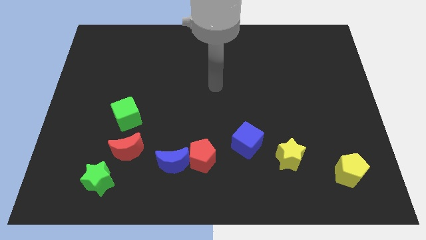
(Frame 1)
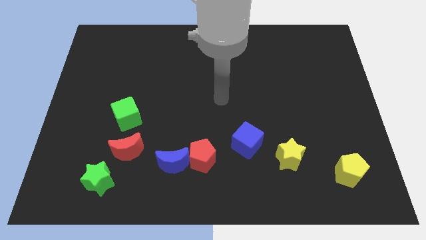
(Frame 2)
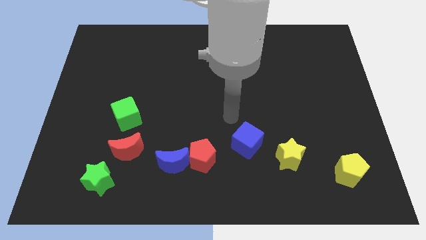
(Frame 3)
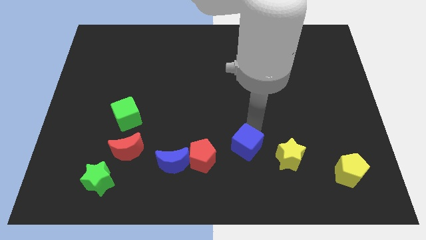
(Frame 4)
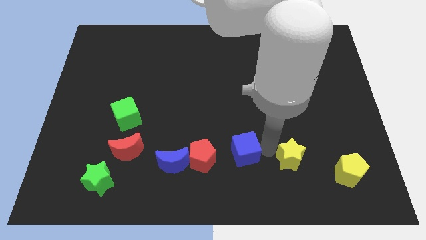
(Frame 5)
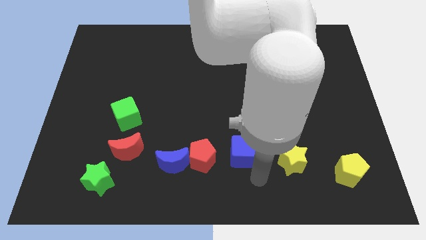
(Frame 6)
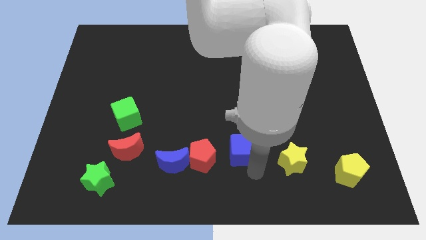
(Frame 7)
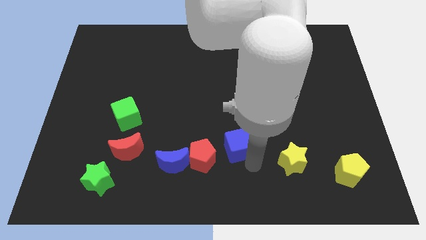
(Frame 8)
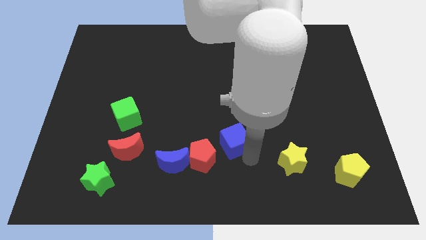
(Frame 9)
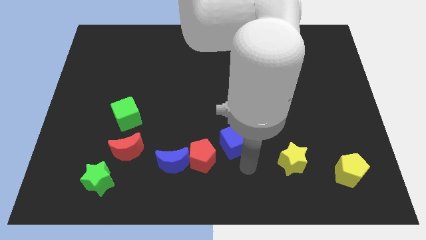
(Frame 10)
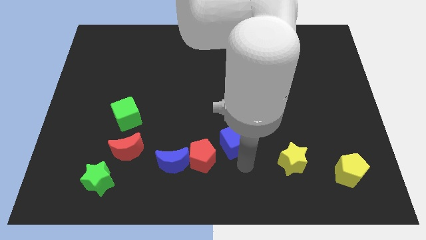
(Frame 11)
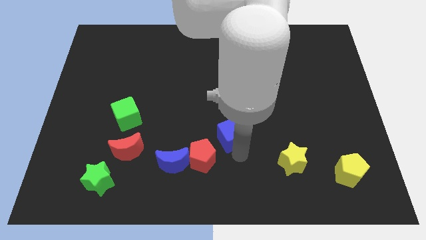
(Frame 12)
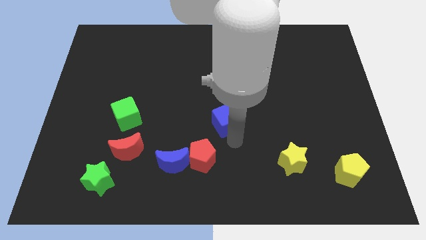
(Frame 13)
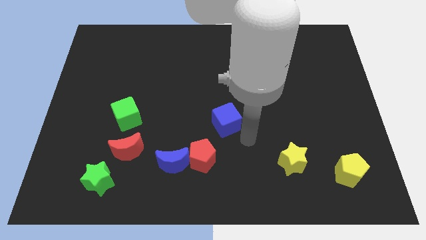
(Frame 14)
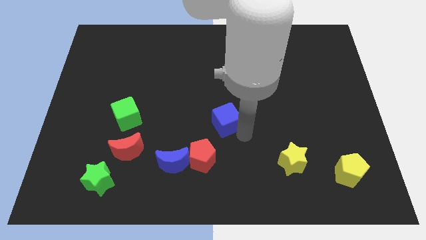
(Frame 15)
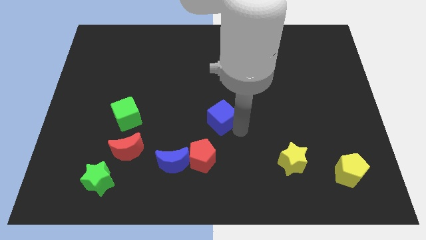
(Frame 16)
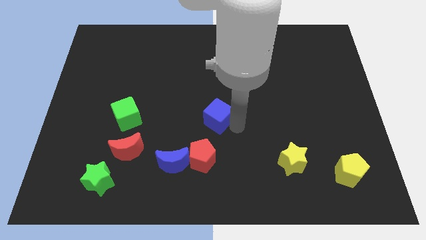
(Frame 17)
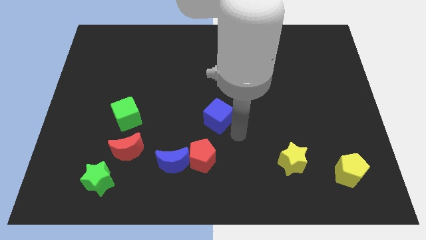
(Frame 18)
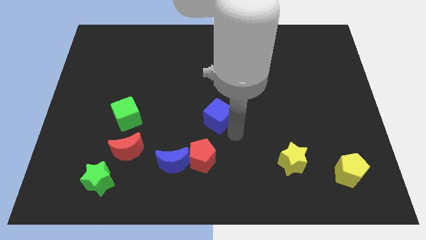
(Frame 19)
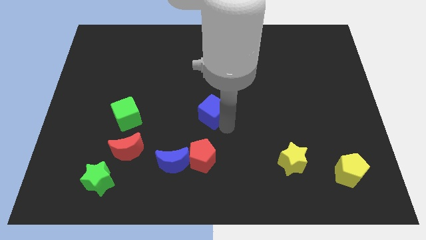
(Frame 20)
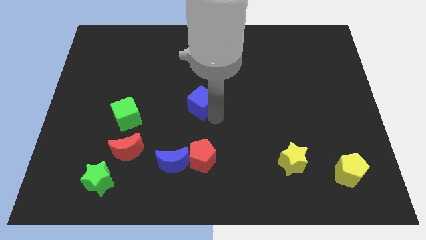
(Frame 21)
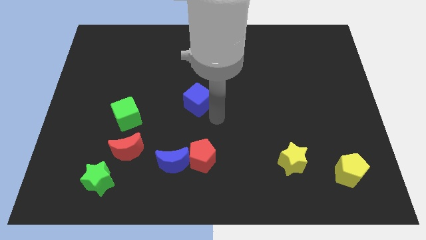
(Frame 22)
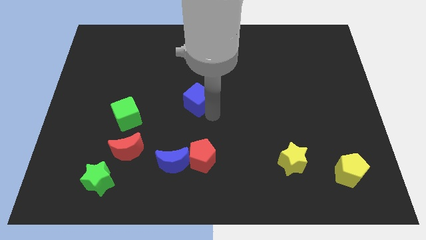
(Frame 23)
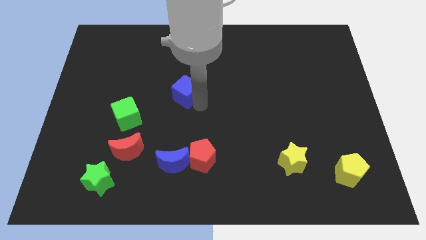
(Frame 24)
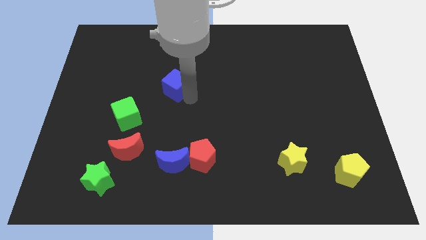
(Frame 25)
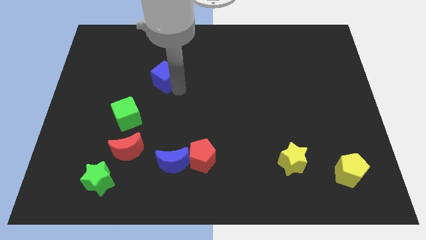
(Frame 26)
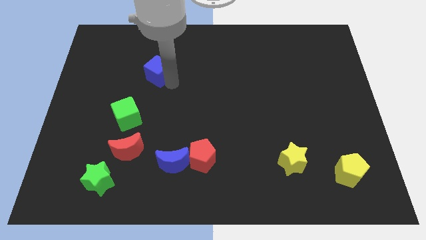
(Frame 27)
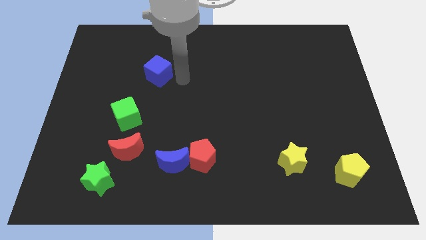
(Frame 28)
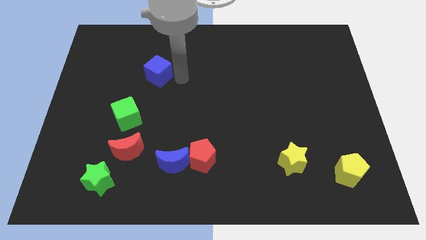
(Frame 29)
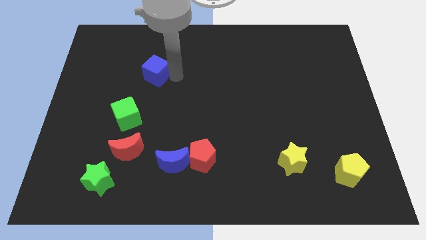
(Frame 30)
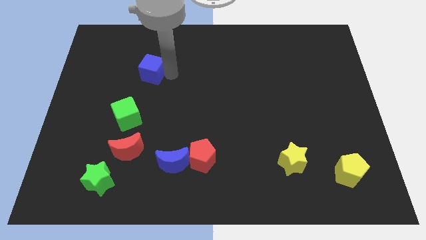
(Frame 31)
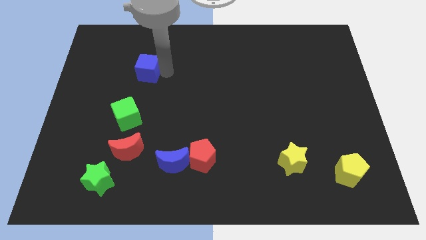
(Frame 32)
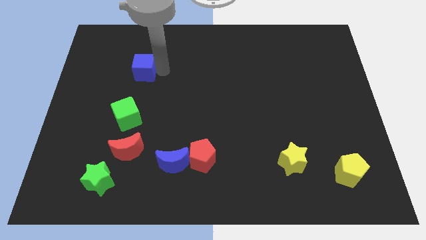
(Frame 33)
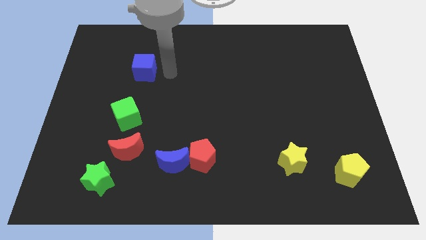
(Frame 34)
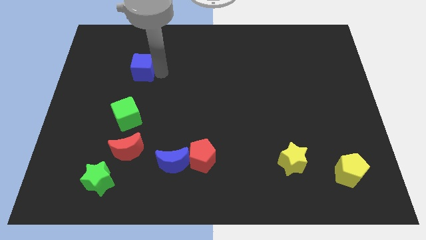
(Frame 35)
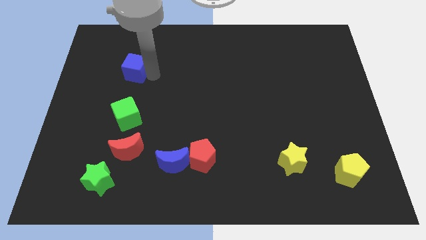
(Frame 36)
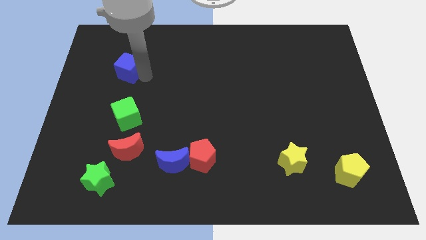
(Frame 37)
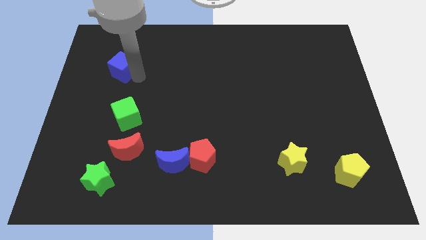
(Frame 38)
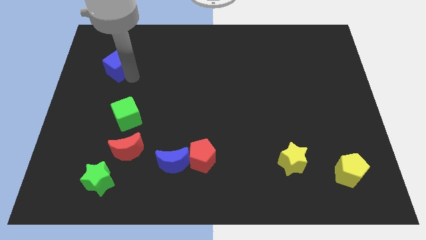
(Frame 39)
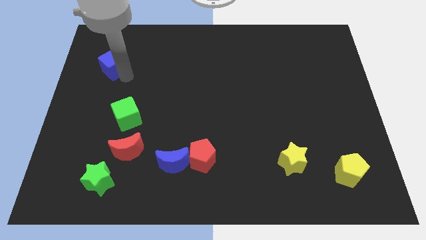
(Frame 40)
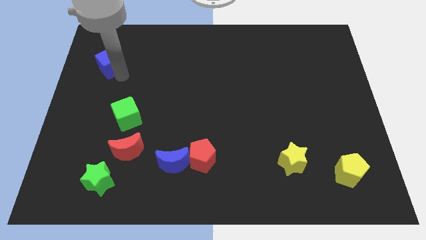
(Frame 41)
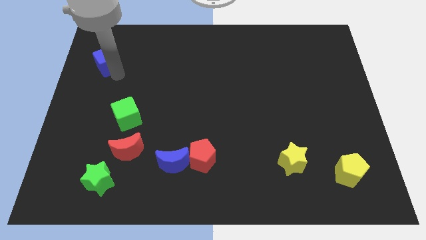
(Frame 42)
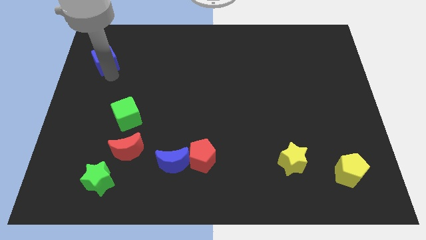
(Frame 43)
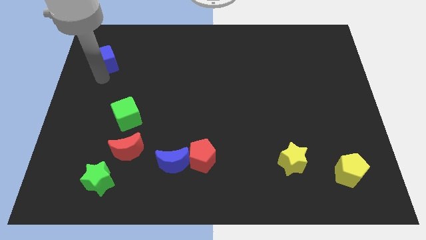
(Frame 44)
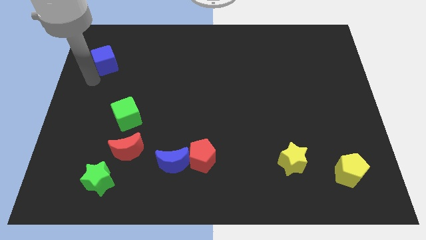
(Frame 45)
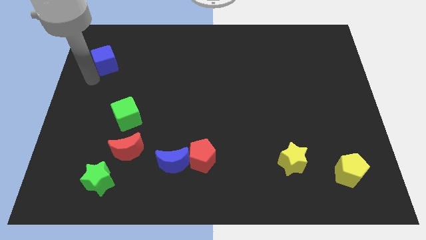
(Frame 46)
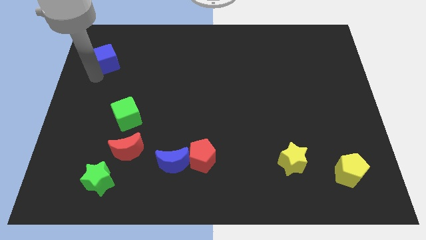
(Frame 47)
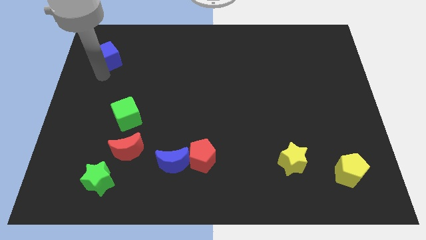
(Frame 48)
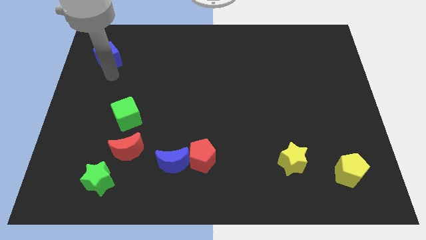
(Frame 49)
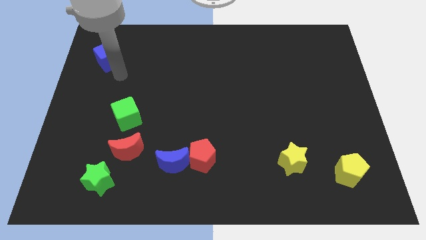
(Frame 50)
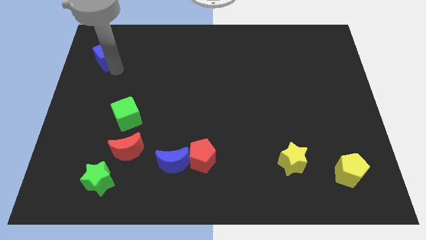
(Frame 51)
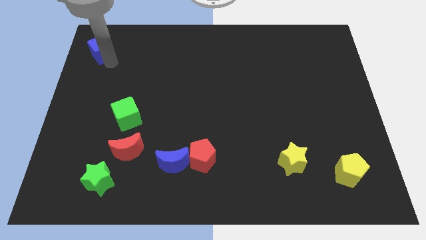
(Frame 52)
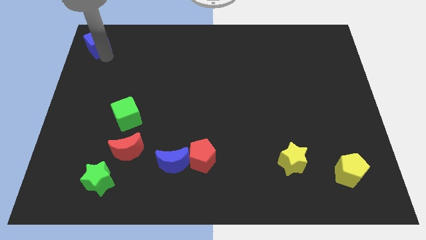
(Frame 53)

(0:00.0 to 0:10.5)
put the blue cube to the upper left corner

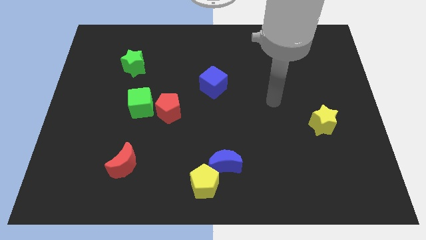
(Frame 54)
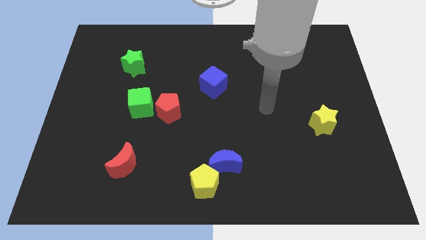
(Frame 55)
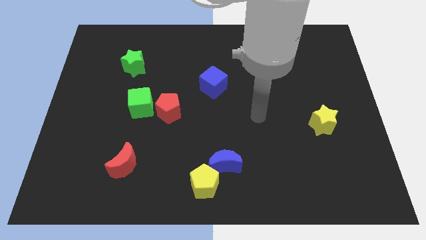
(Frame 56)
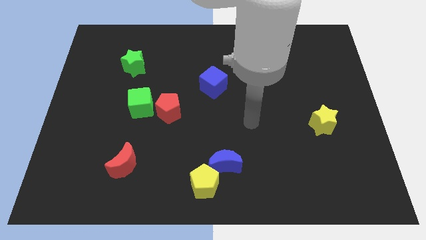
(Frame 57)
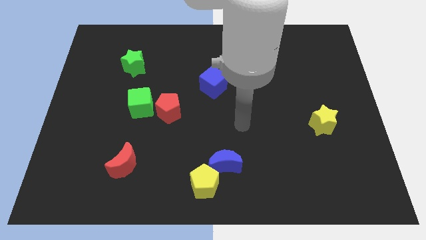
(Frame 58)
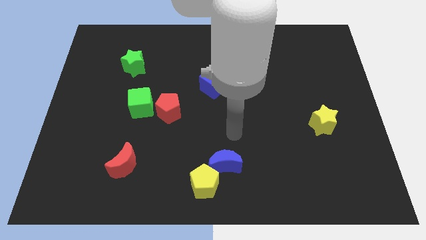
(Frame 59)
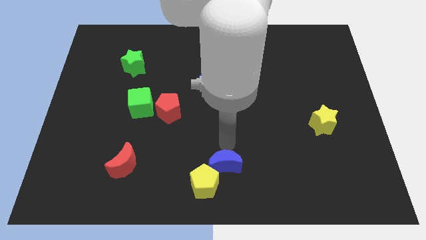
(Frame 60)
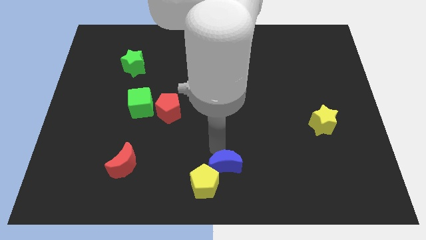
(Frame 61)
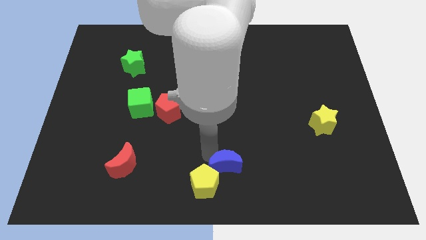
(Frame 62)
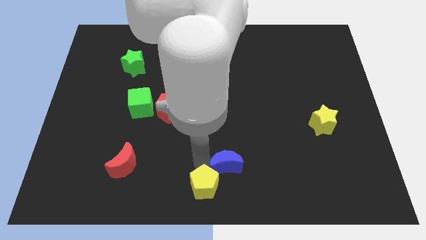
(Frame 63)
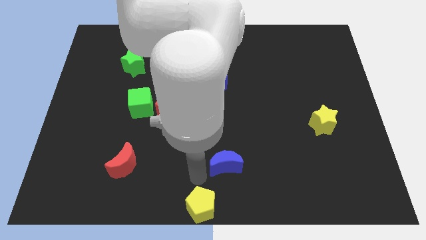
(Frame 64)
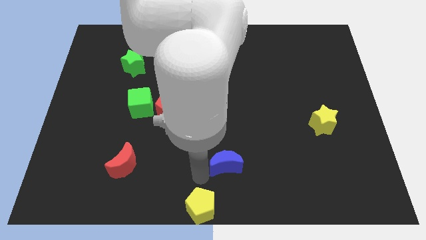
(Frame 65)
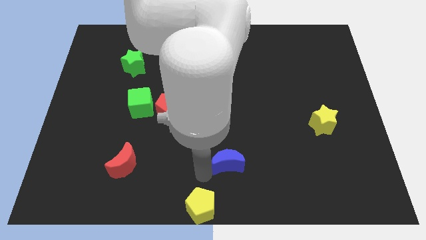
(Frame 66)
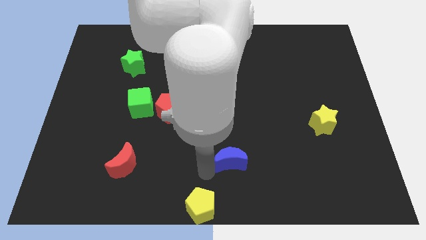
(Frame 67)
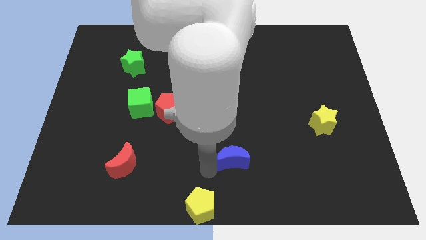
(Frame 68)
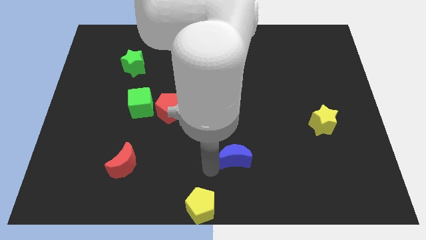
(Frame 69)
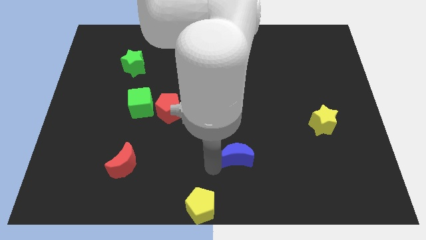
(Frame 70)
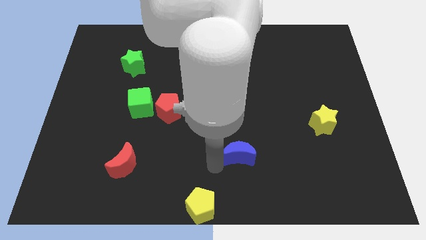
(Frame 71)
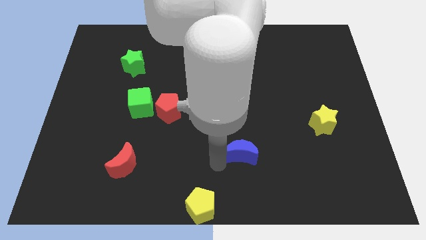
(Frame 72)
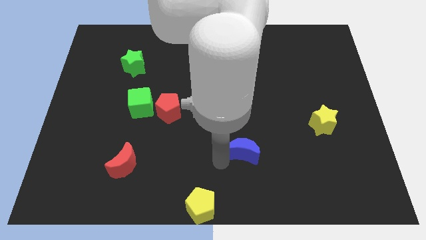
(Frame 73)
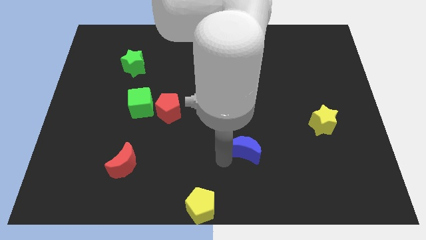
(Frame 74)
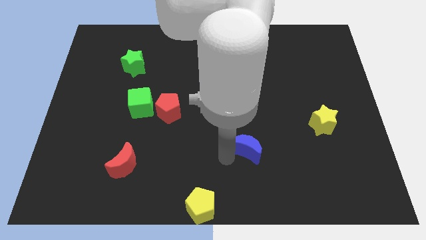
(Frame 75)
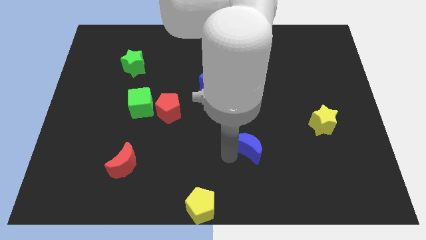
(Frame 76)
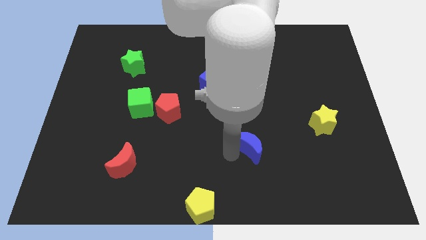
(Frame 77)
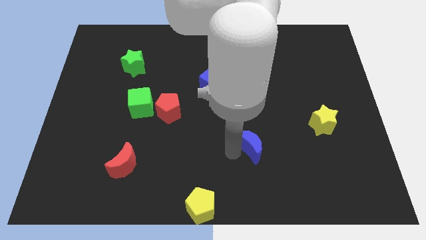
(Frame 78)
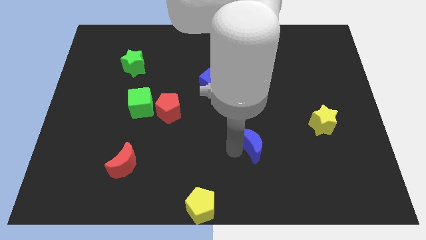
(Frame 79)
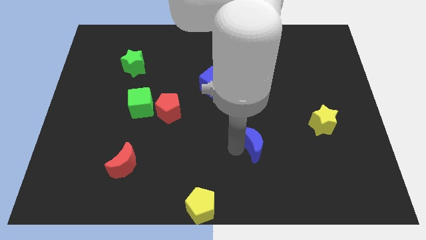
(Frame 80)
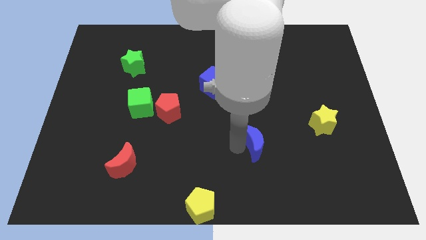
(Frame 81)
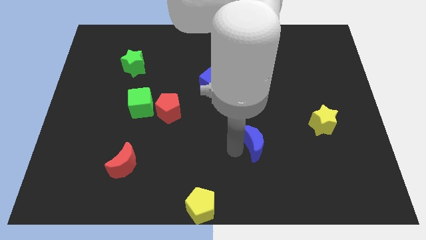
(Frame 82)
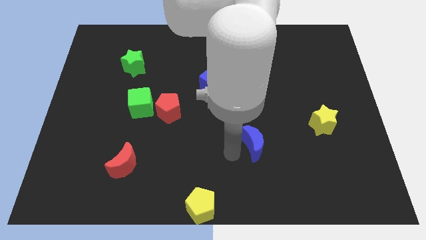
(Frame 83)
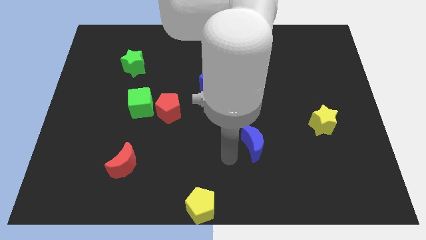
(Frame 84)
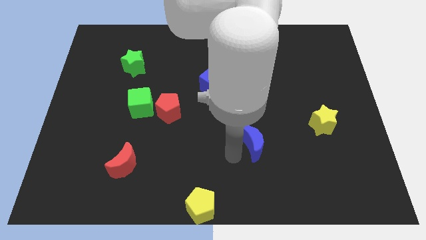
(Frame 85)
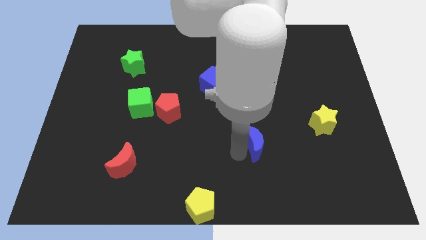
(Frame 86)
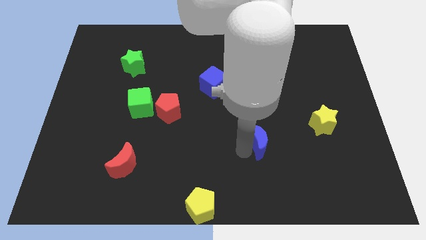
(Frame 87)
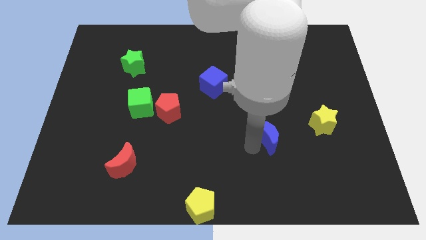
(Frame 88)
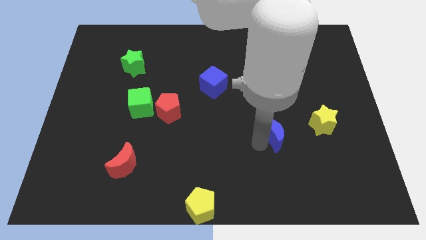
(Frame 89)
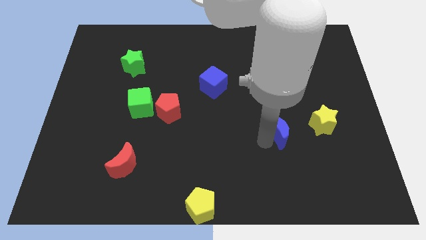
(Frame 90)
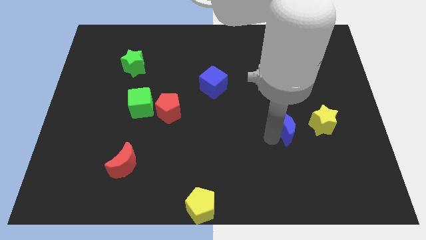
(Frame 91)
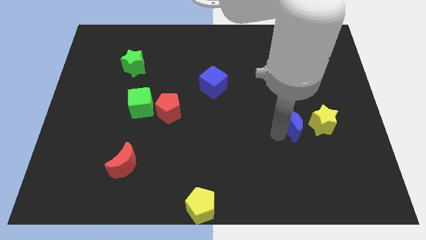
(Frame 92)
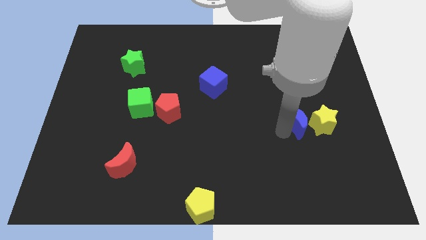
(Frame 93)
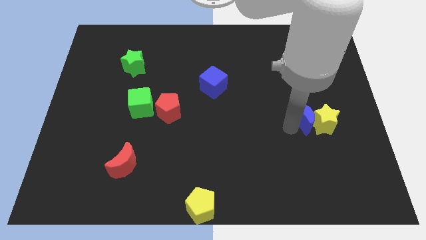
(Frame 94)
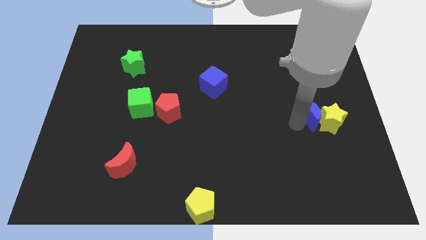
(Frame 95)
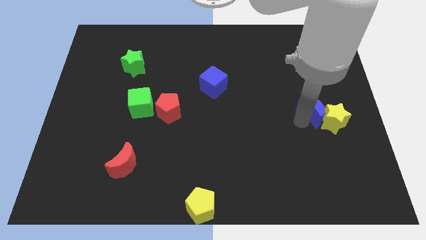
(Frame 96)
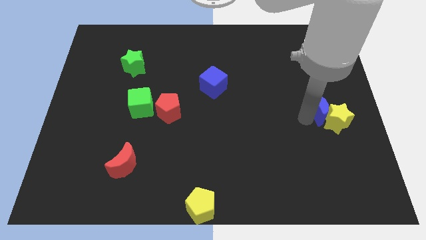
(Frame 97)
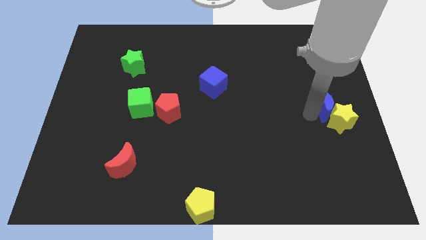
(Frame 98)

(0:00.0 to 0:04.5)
put the blue moon to the right side
